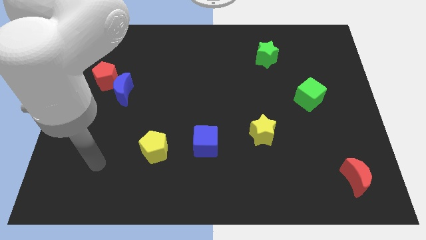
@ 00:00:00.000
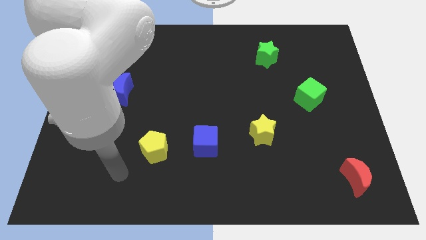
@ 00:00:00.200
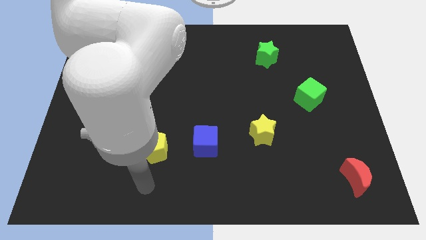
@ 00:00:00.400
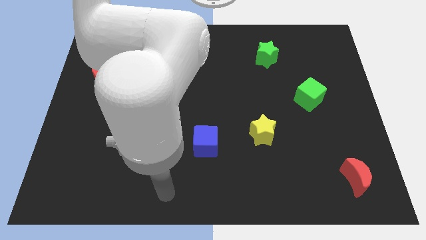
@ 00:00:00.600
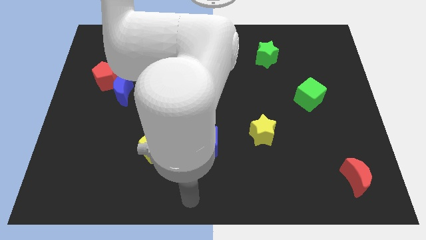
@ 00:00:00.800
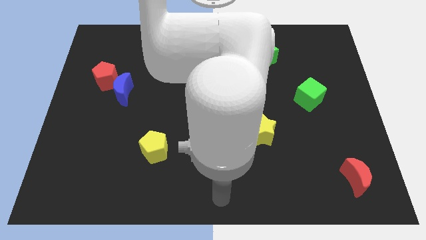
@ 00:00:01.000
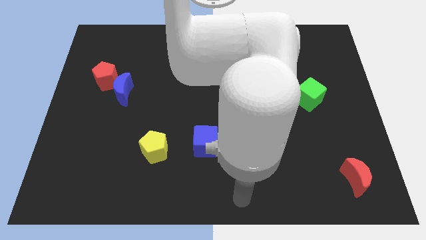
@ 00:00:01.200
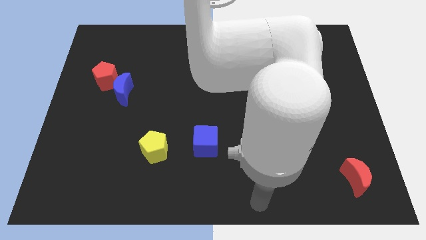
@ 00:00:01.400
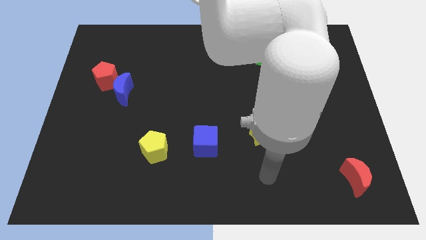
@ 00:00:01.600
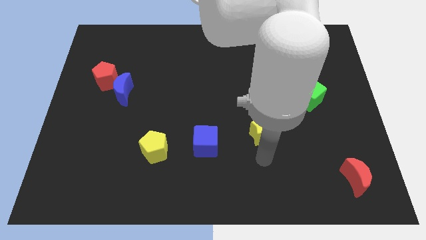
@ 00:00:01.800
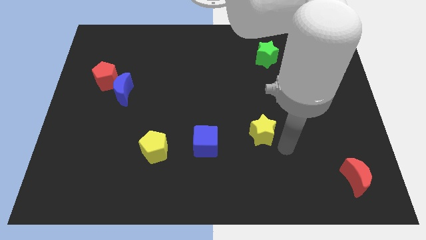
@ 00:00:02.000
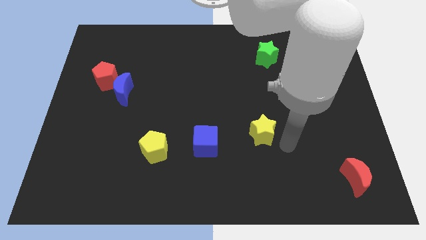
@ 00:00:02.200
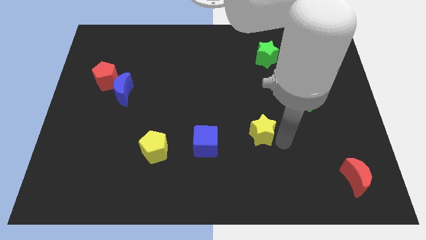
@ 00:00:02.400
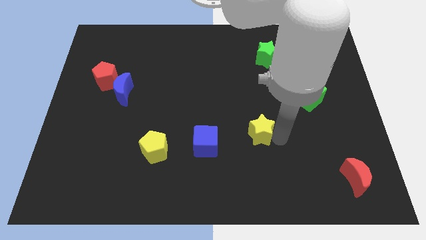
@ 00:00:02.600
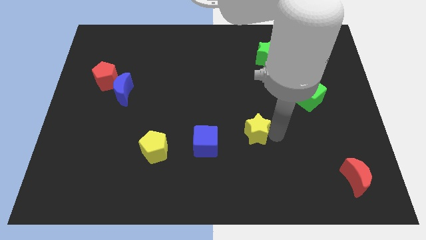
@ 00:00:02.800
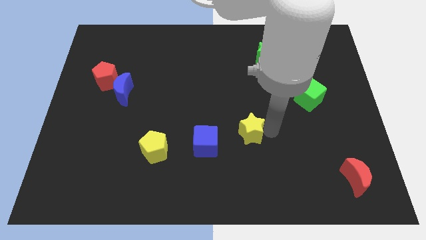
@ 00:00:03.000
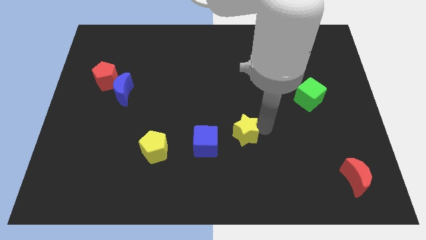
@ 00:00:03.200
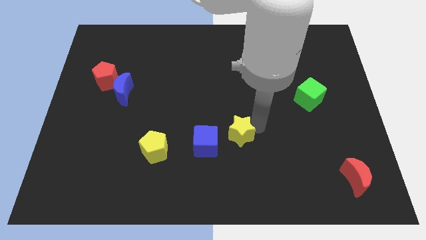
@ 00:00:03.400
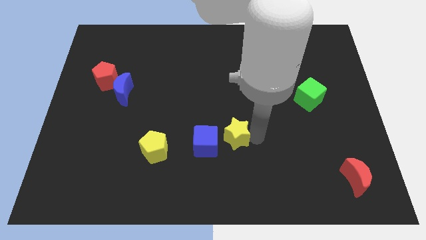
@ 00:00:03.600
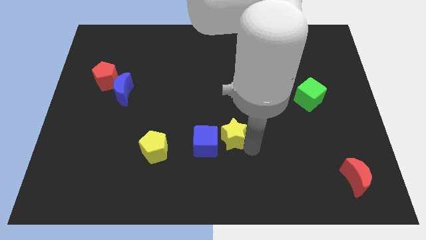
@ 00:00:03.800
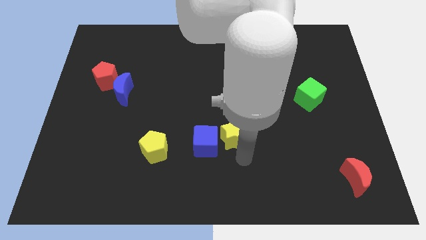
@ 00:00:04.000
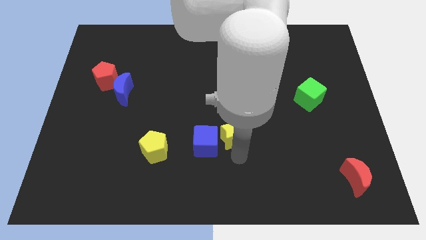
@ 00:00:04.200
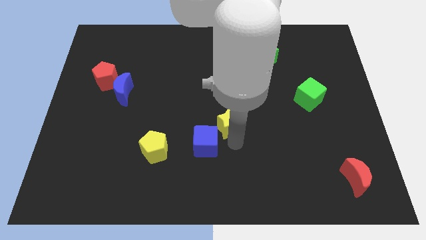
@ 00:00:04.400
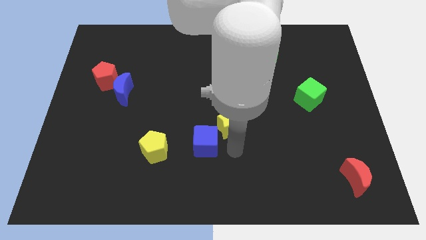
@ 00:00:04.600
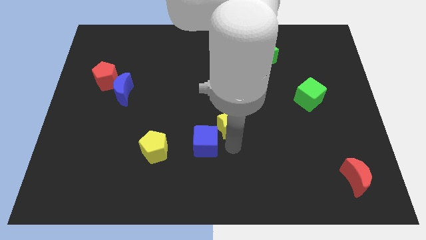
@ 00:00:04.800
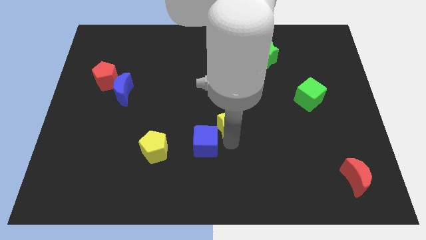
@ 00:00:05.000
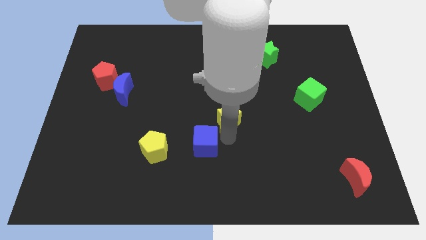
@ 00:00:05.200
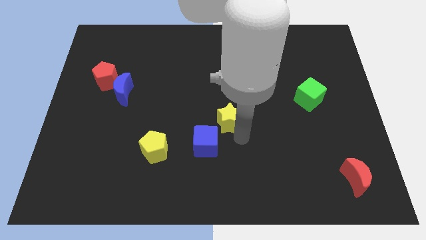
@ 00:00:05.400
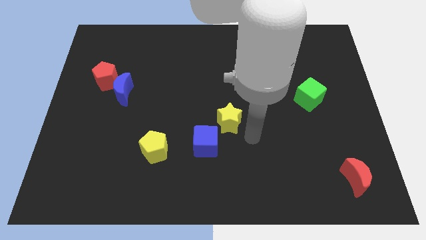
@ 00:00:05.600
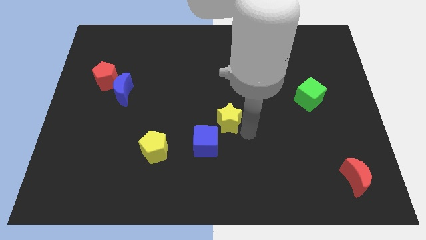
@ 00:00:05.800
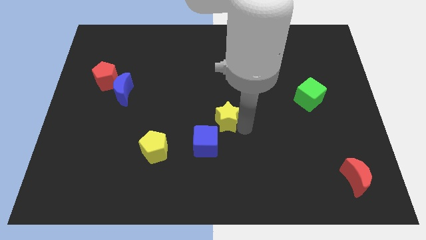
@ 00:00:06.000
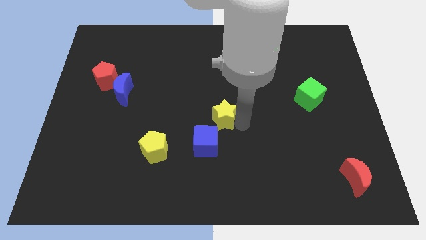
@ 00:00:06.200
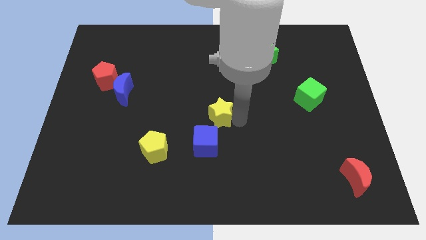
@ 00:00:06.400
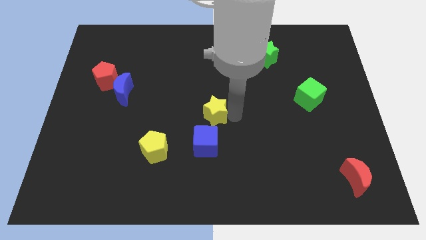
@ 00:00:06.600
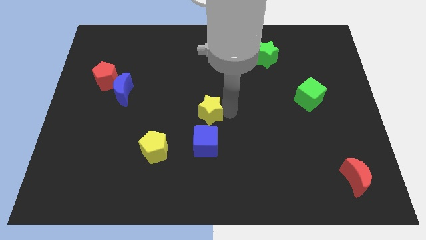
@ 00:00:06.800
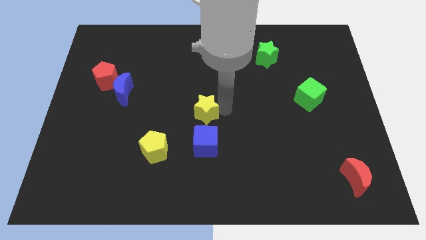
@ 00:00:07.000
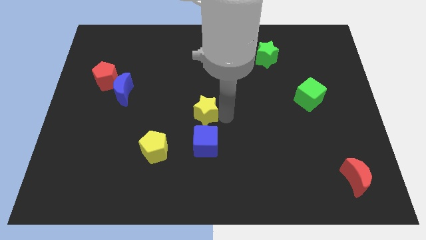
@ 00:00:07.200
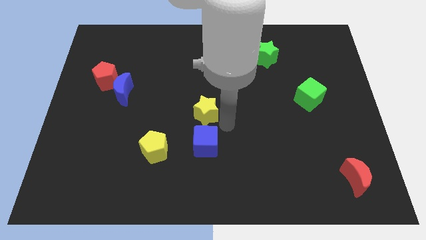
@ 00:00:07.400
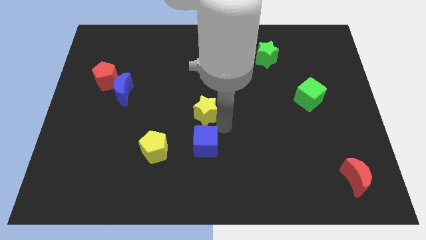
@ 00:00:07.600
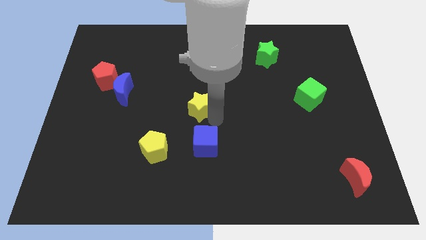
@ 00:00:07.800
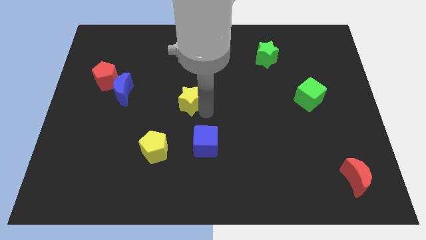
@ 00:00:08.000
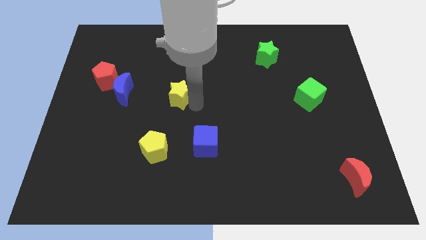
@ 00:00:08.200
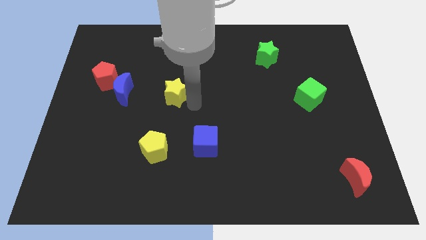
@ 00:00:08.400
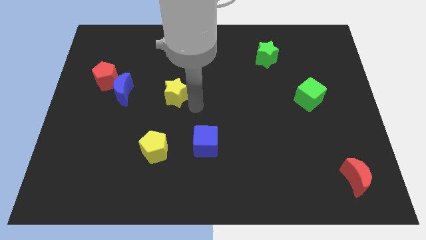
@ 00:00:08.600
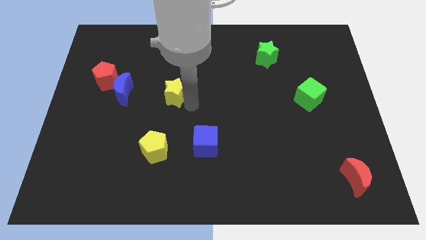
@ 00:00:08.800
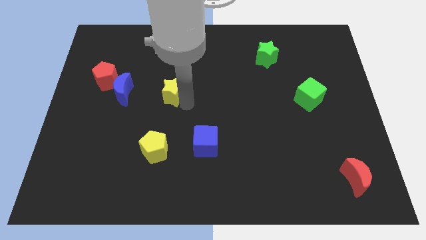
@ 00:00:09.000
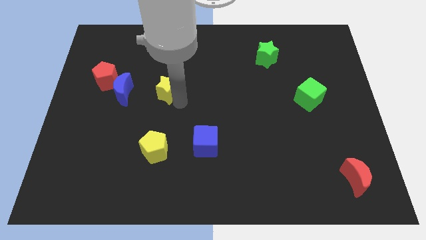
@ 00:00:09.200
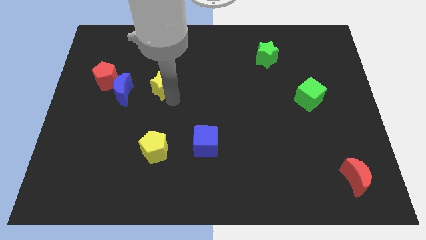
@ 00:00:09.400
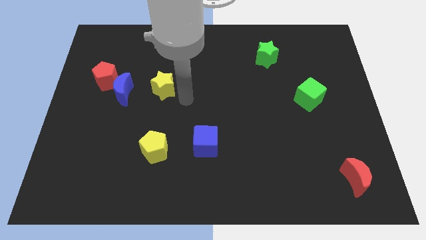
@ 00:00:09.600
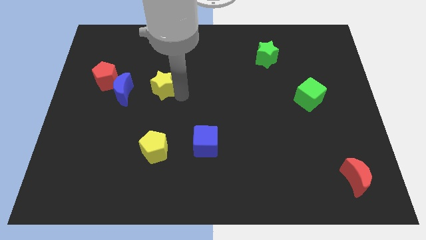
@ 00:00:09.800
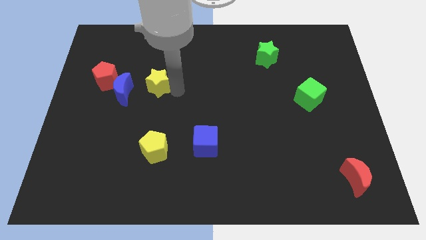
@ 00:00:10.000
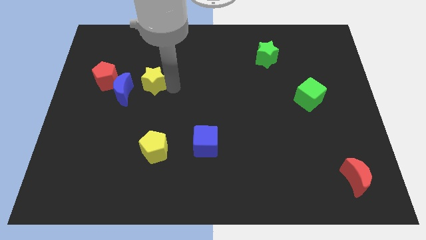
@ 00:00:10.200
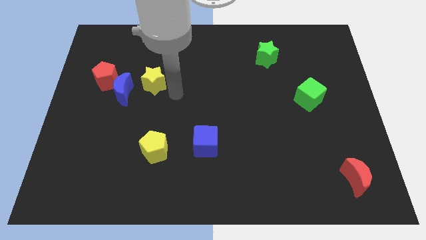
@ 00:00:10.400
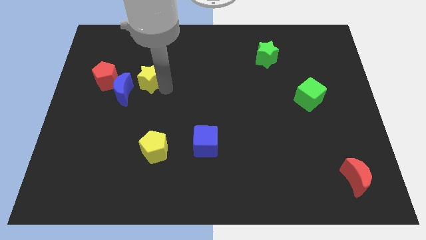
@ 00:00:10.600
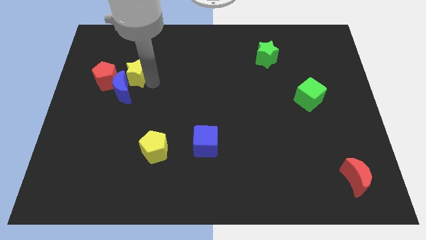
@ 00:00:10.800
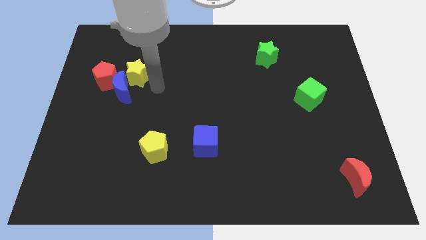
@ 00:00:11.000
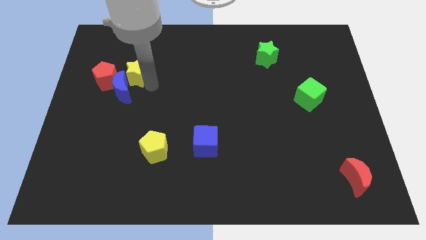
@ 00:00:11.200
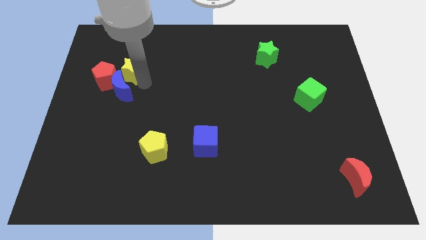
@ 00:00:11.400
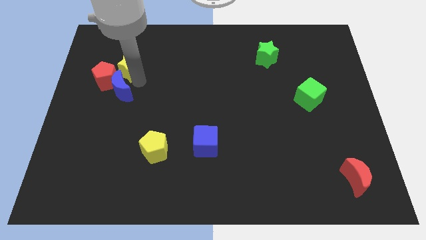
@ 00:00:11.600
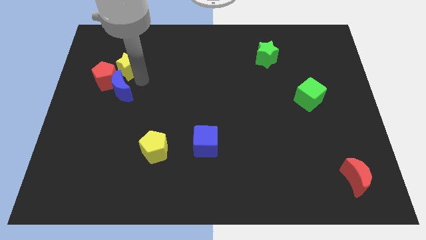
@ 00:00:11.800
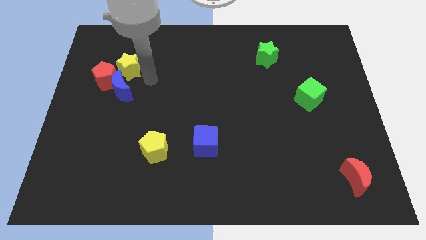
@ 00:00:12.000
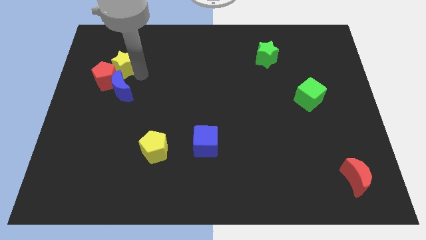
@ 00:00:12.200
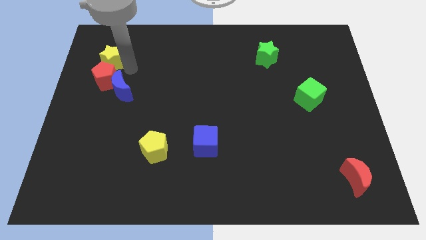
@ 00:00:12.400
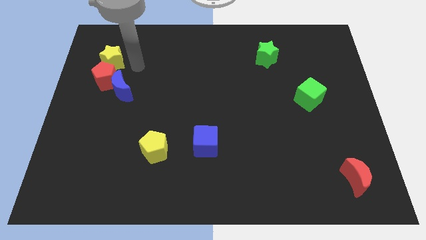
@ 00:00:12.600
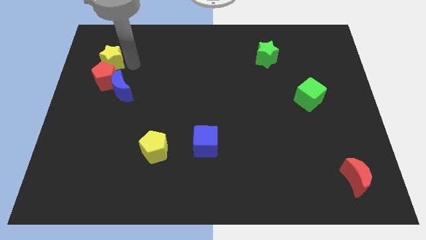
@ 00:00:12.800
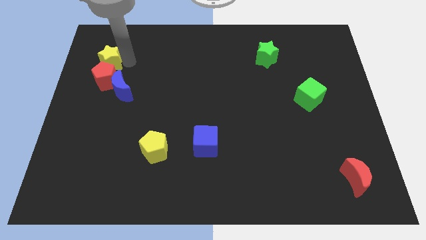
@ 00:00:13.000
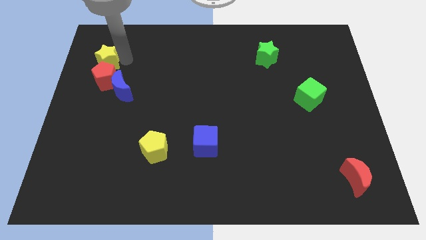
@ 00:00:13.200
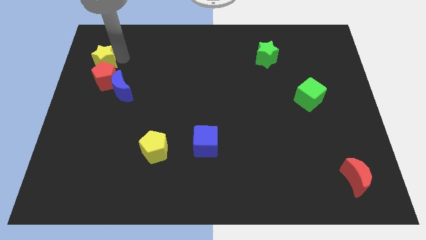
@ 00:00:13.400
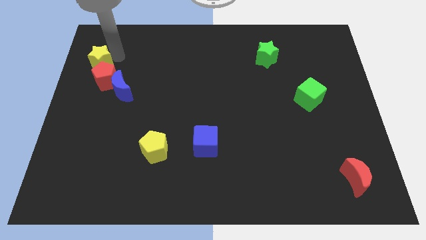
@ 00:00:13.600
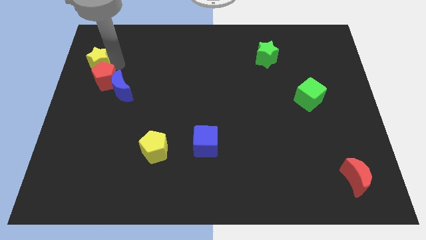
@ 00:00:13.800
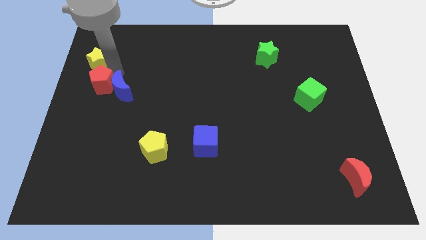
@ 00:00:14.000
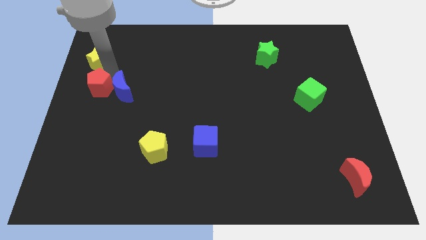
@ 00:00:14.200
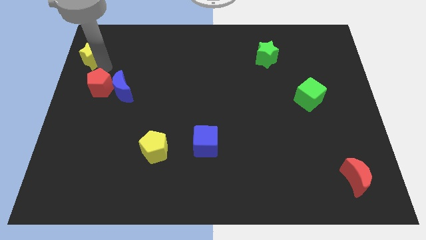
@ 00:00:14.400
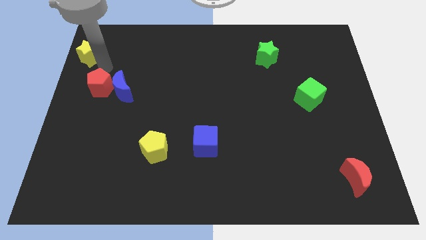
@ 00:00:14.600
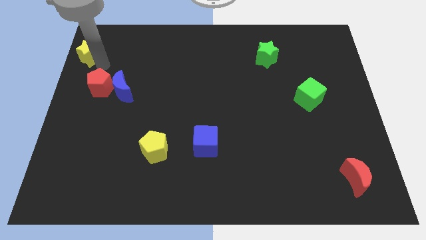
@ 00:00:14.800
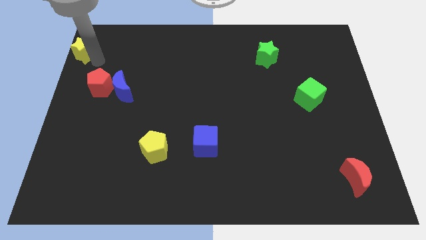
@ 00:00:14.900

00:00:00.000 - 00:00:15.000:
slide the yellow star to the top left of the board
